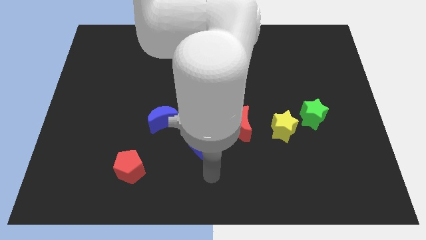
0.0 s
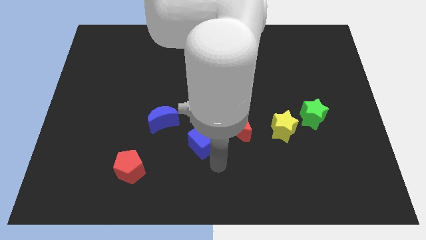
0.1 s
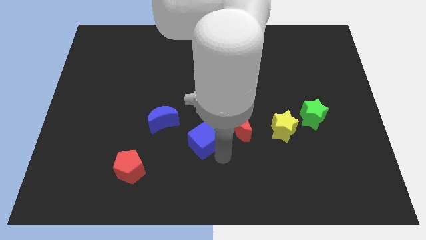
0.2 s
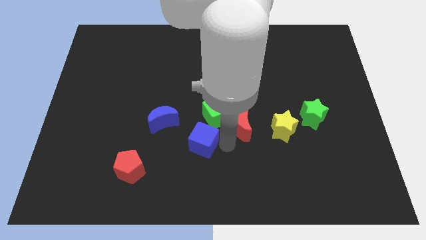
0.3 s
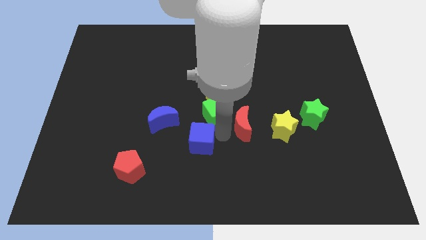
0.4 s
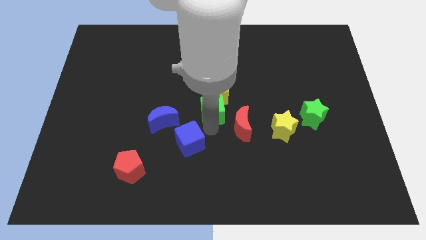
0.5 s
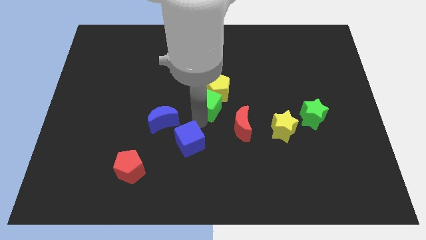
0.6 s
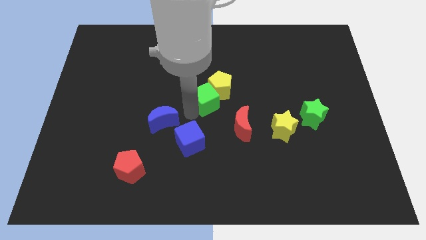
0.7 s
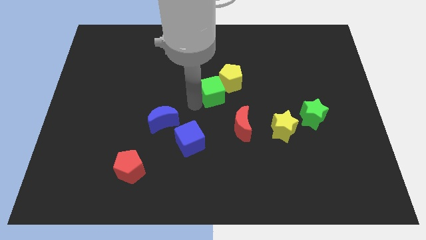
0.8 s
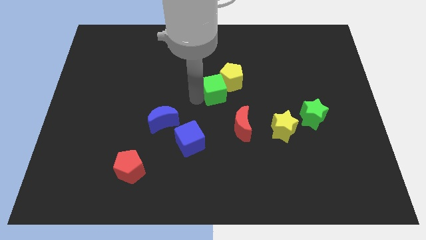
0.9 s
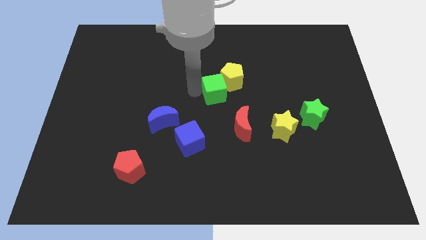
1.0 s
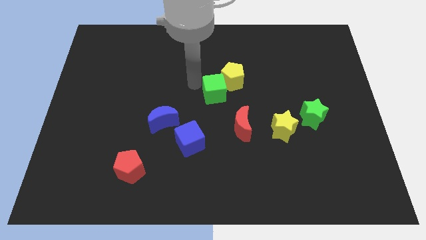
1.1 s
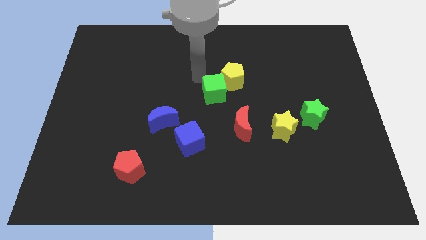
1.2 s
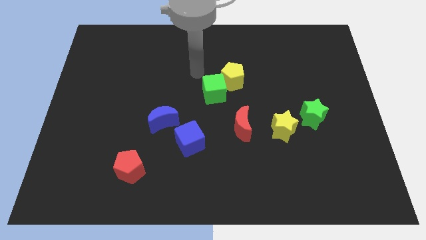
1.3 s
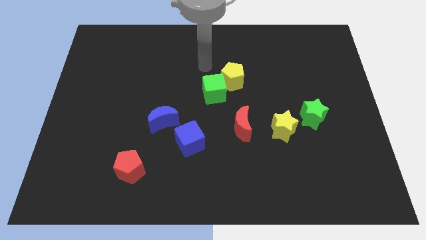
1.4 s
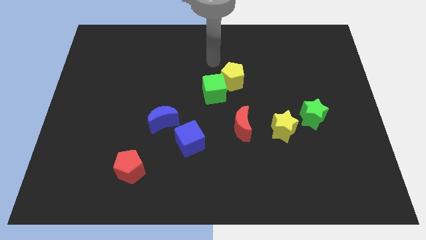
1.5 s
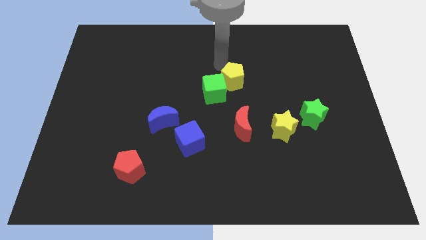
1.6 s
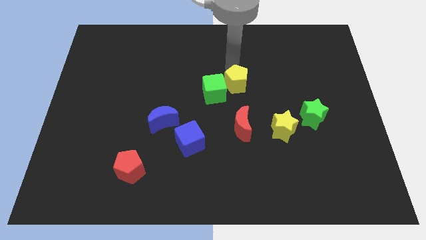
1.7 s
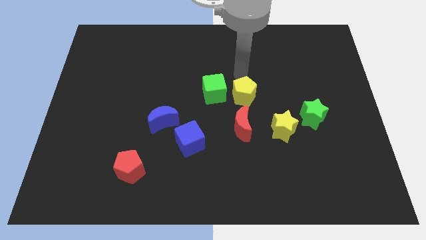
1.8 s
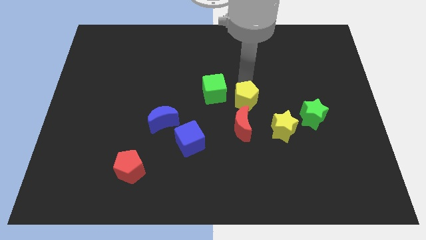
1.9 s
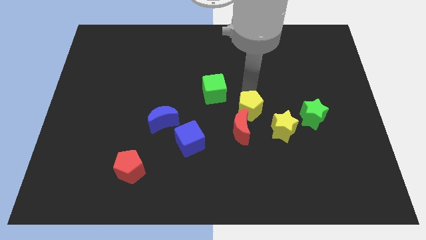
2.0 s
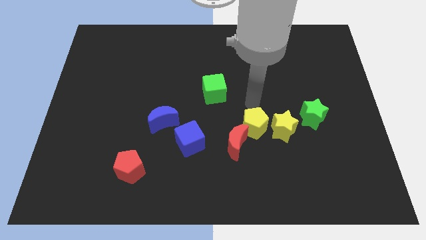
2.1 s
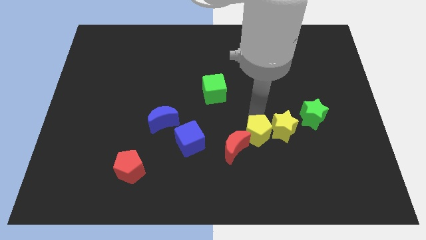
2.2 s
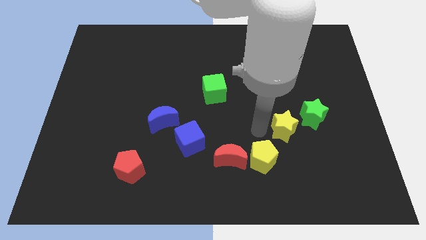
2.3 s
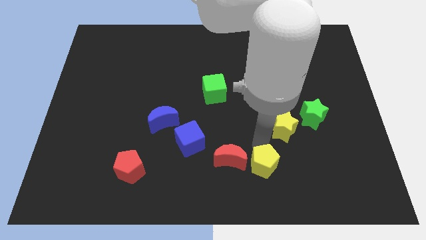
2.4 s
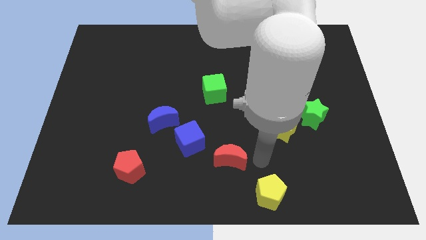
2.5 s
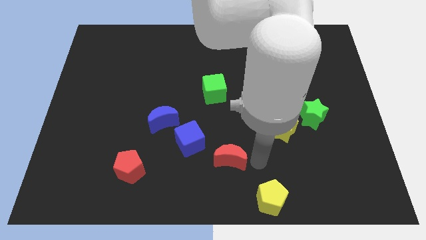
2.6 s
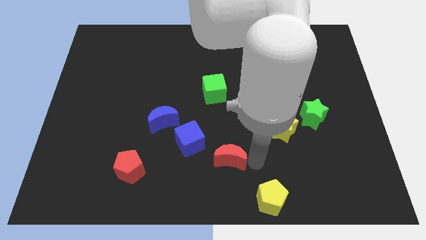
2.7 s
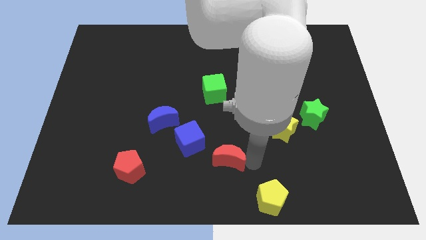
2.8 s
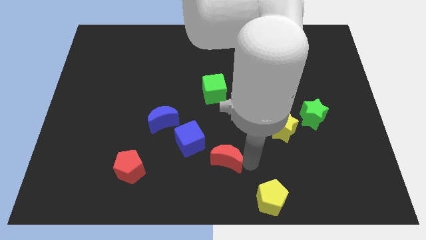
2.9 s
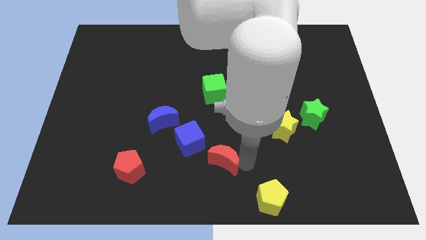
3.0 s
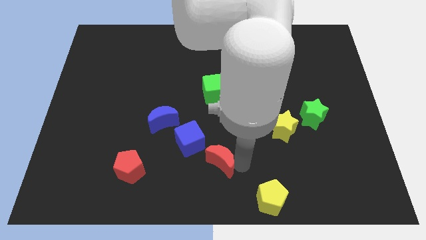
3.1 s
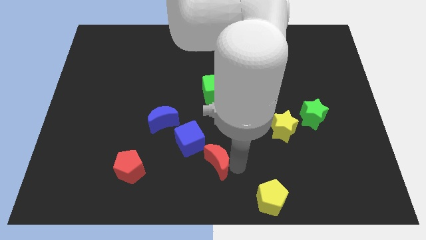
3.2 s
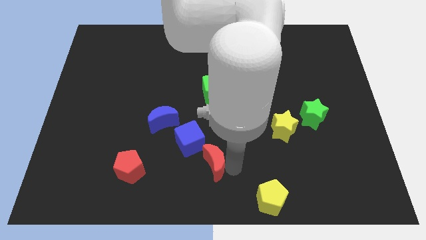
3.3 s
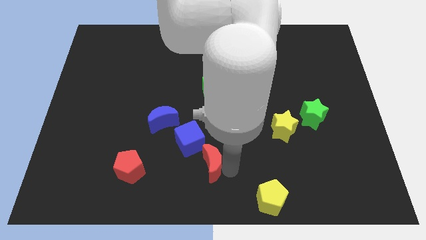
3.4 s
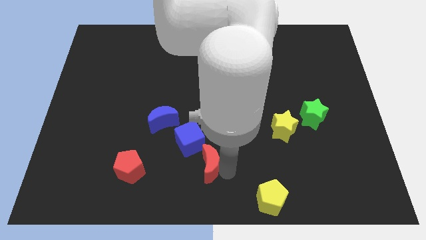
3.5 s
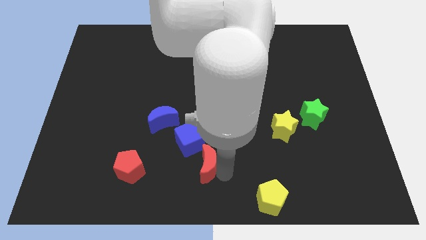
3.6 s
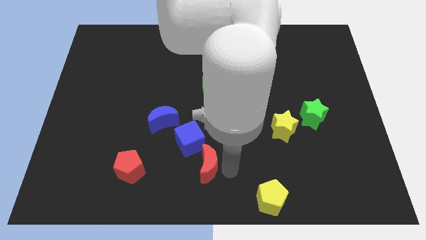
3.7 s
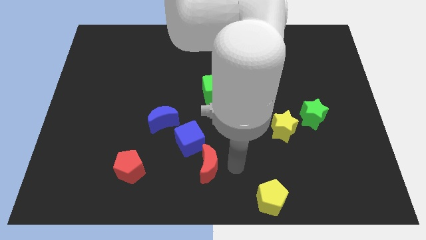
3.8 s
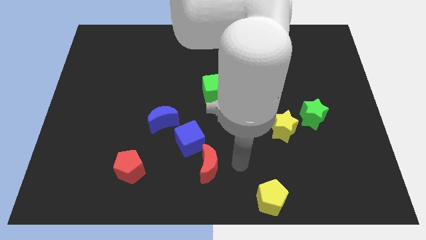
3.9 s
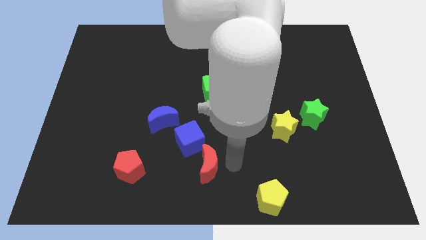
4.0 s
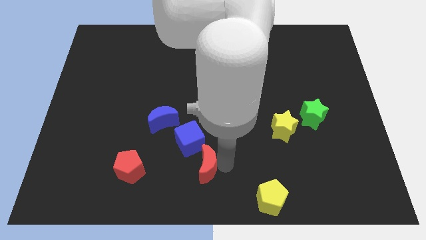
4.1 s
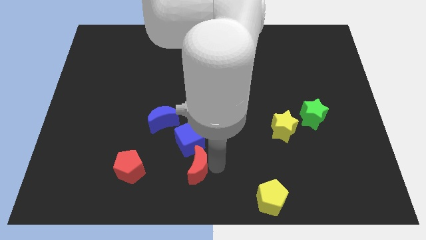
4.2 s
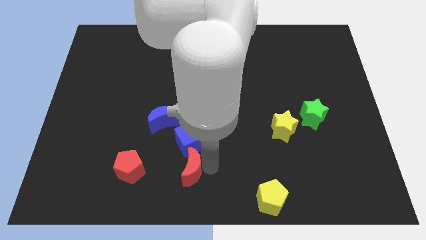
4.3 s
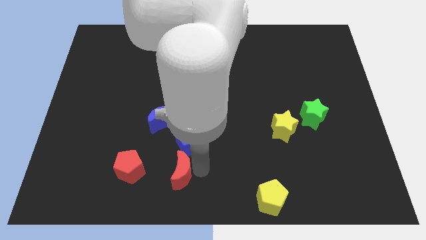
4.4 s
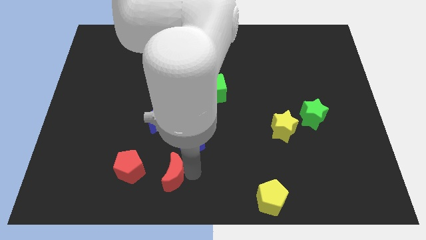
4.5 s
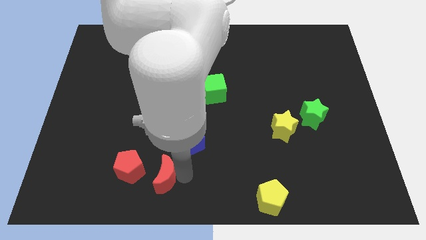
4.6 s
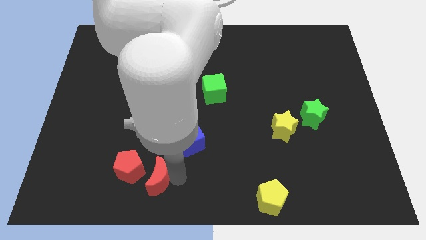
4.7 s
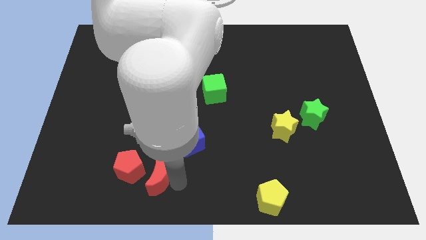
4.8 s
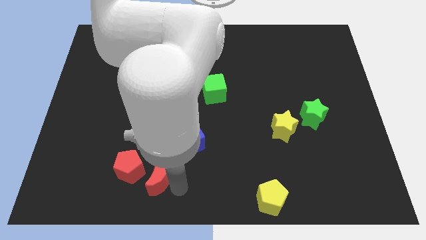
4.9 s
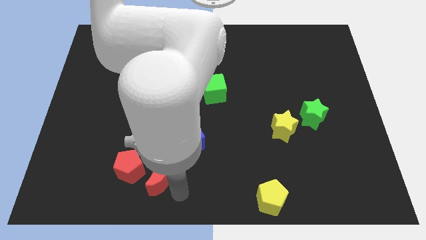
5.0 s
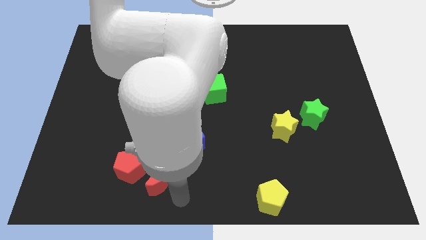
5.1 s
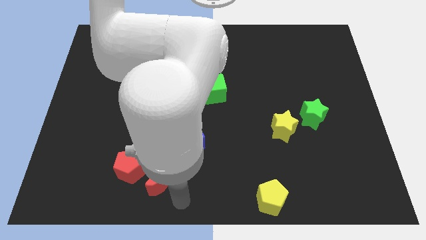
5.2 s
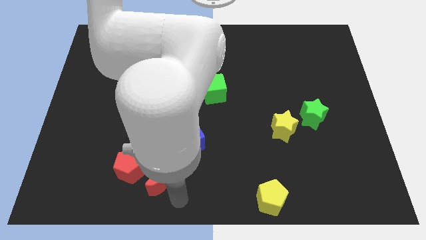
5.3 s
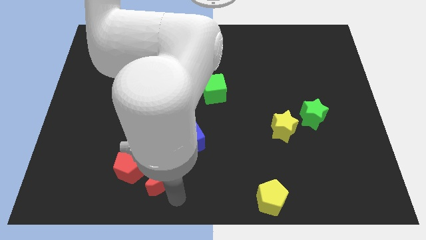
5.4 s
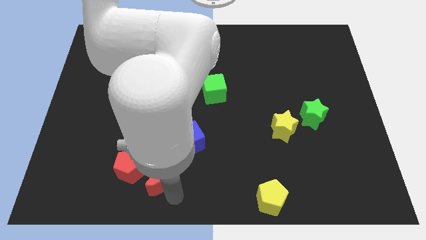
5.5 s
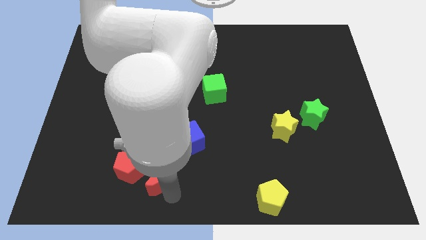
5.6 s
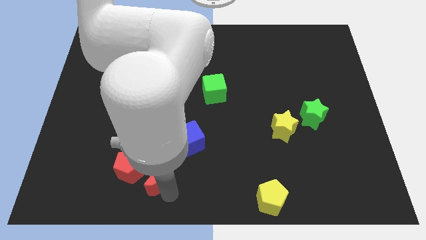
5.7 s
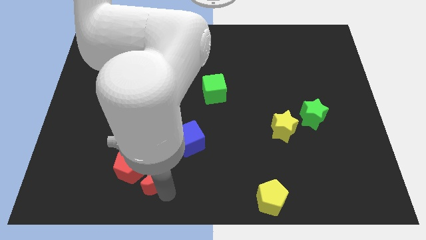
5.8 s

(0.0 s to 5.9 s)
slide the red moon close to the red pentagon
